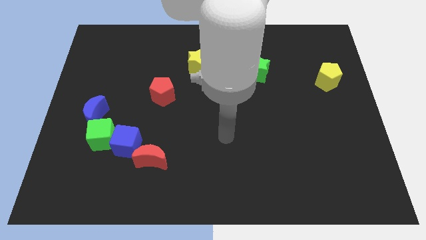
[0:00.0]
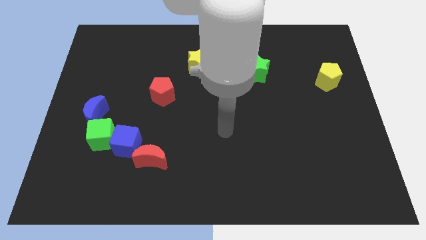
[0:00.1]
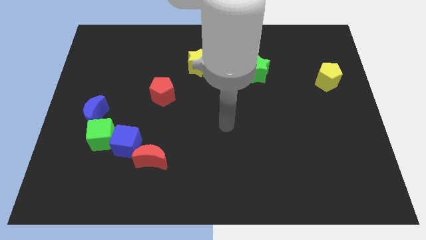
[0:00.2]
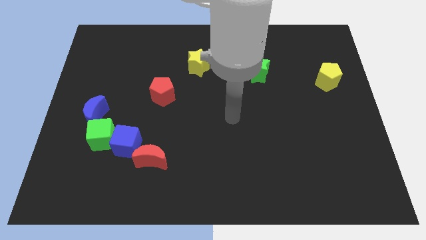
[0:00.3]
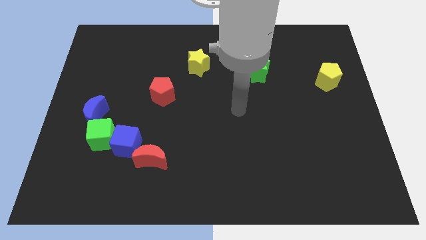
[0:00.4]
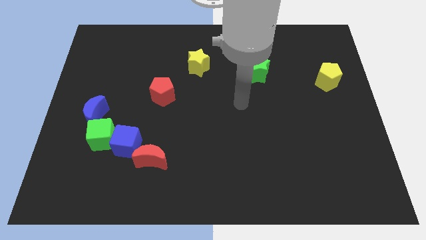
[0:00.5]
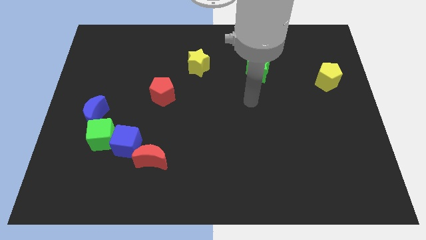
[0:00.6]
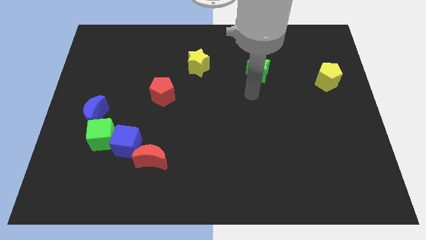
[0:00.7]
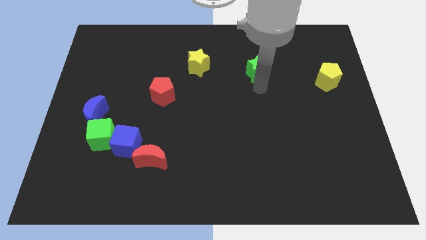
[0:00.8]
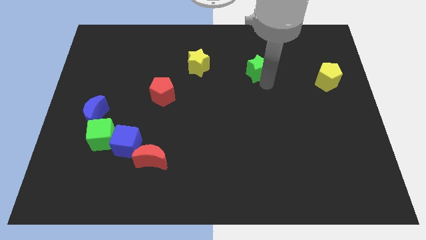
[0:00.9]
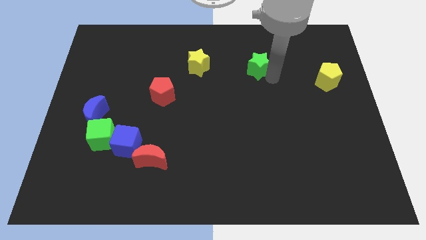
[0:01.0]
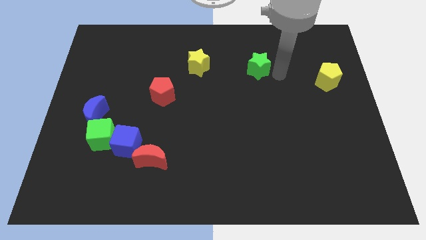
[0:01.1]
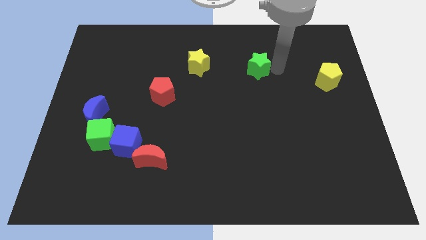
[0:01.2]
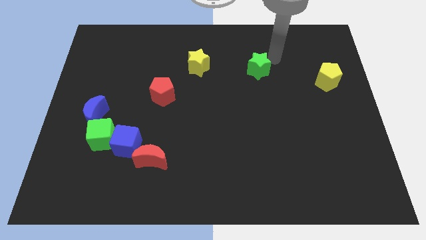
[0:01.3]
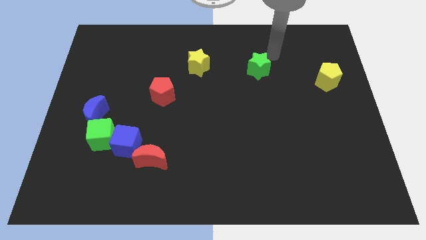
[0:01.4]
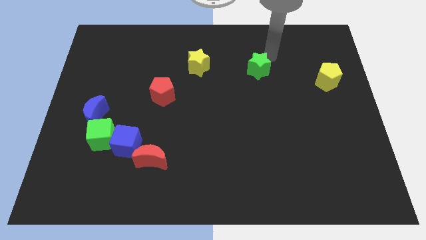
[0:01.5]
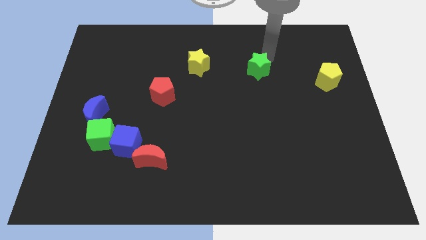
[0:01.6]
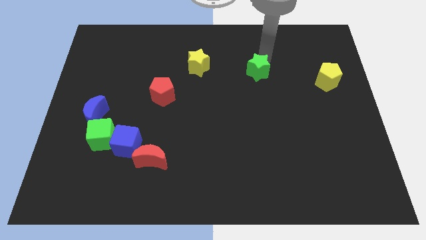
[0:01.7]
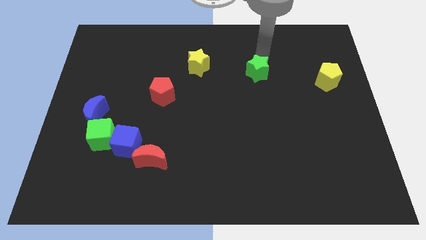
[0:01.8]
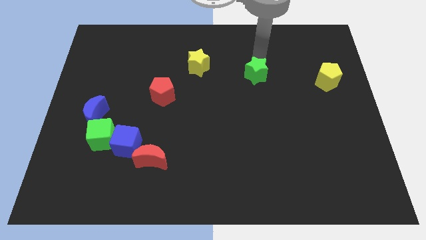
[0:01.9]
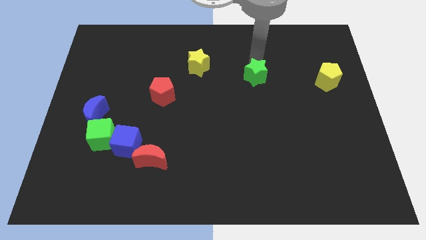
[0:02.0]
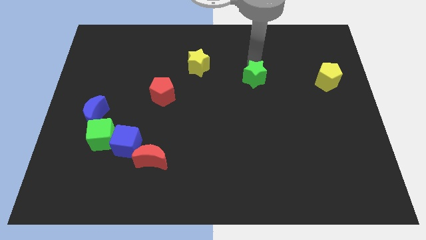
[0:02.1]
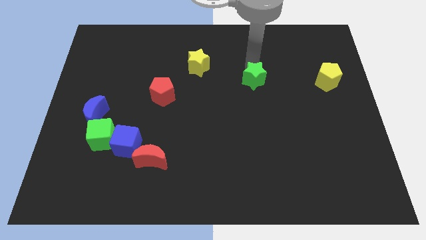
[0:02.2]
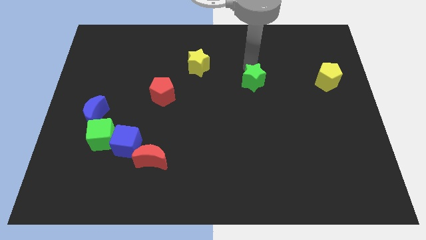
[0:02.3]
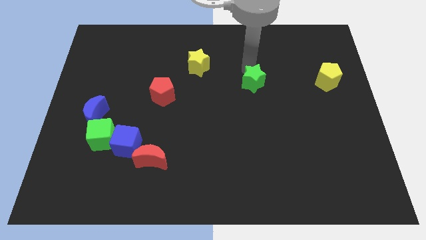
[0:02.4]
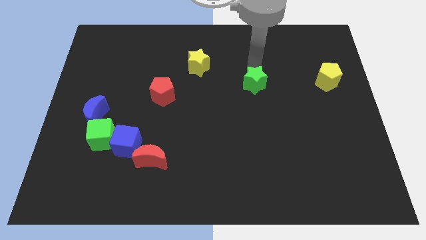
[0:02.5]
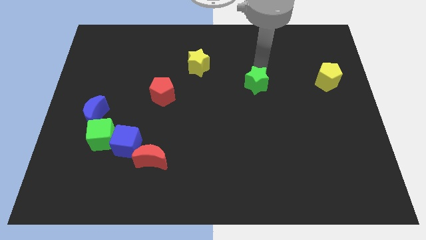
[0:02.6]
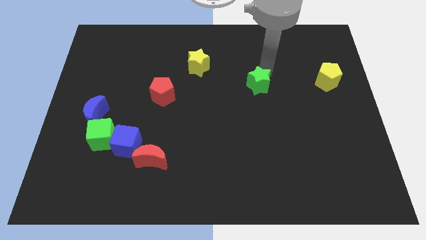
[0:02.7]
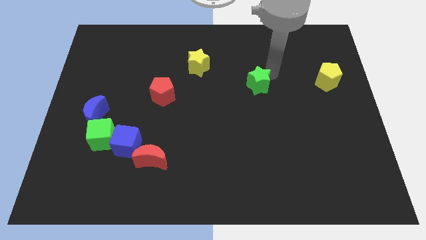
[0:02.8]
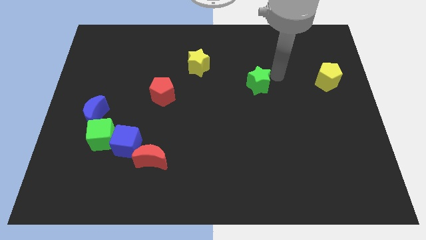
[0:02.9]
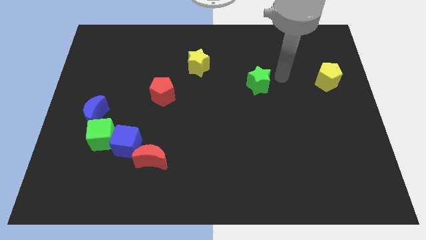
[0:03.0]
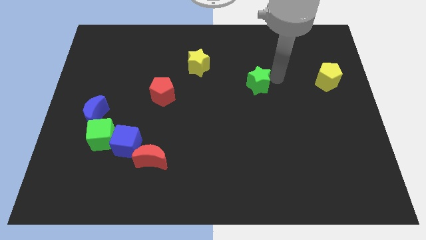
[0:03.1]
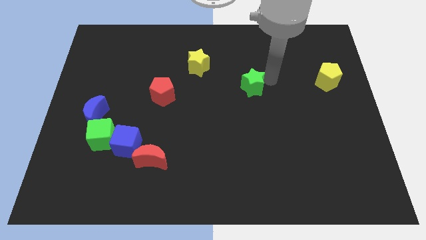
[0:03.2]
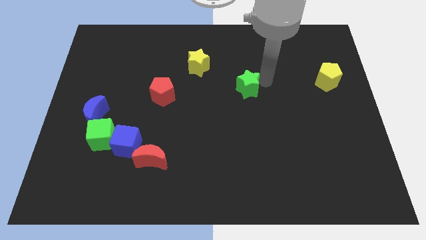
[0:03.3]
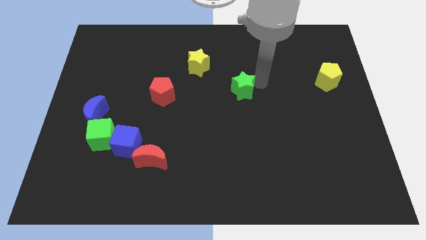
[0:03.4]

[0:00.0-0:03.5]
push the green star slightly diagonally down and to the left

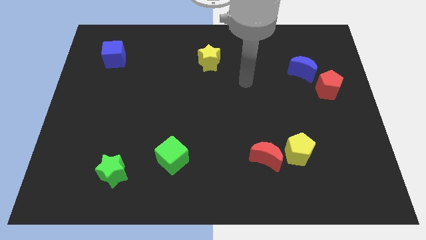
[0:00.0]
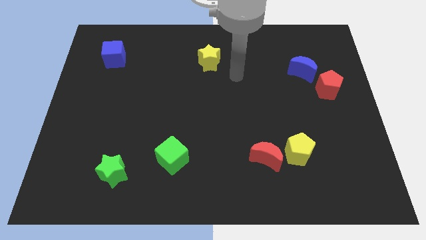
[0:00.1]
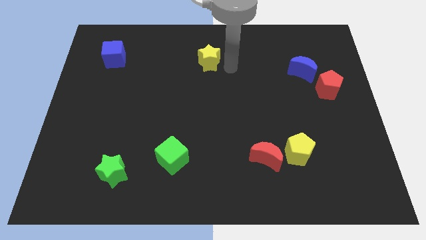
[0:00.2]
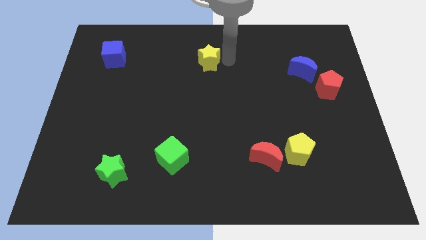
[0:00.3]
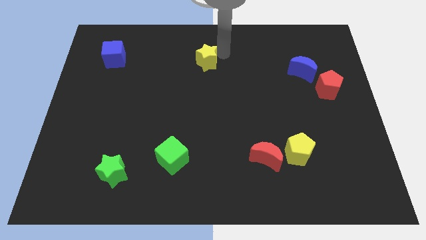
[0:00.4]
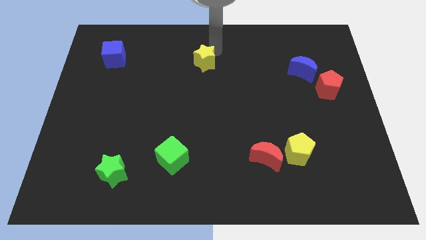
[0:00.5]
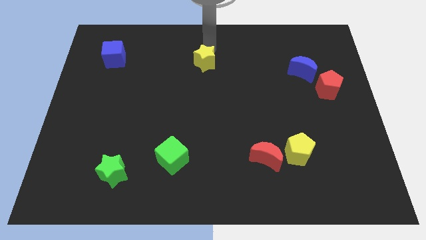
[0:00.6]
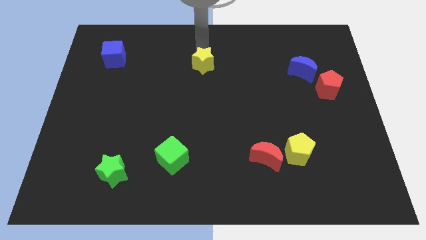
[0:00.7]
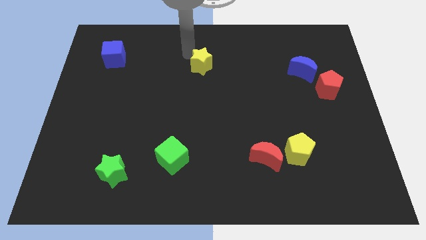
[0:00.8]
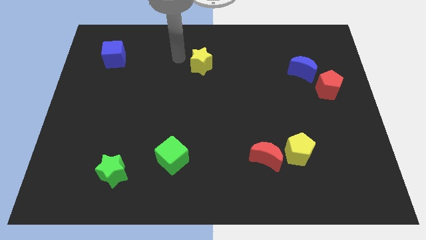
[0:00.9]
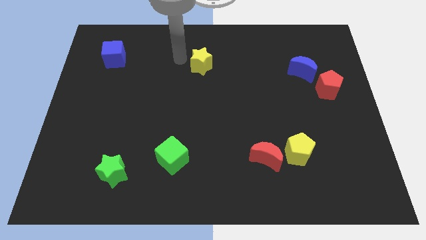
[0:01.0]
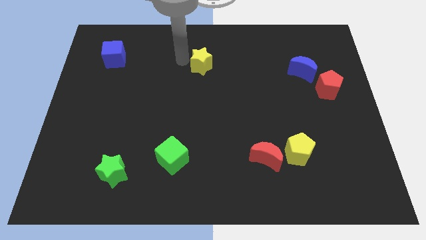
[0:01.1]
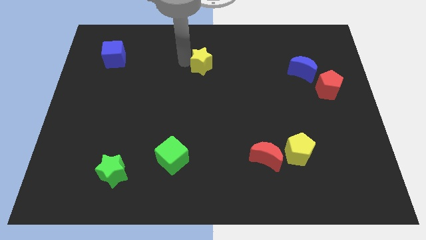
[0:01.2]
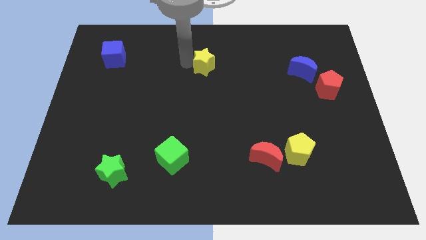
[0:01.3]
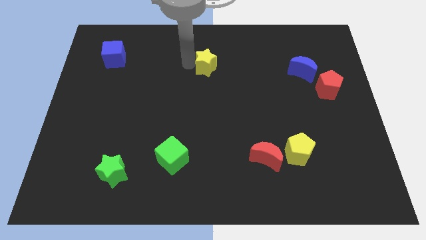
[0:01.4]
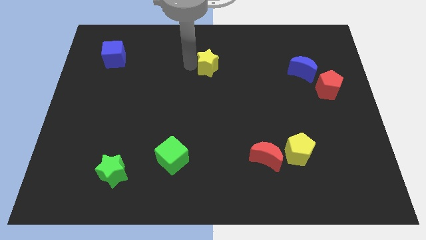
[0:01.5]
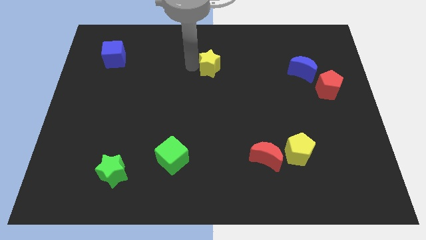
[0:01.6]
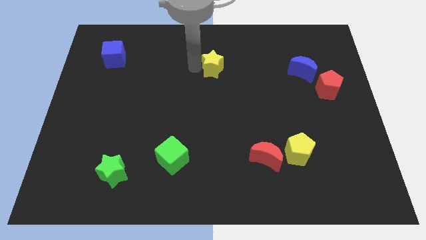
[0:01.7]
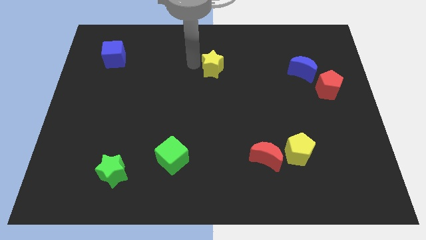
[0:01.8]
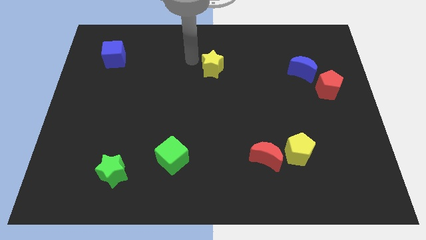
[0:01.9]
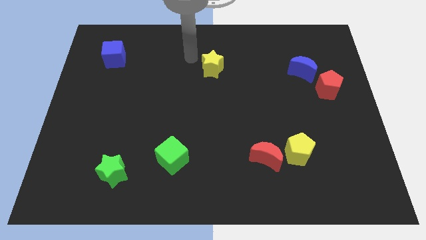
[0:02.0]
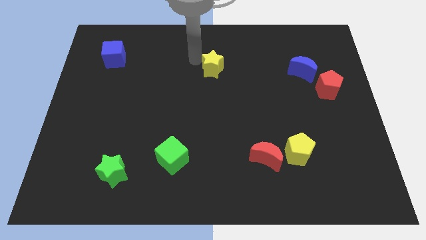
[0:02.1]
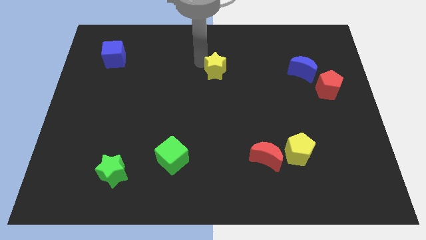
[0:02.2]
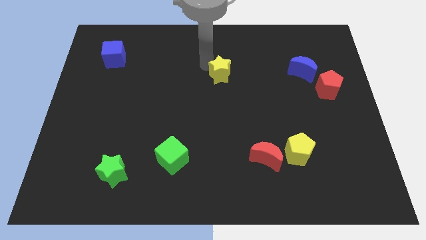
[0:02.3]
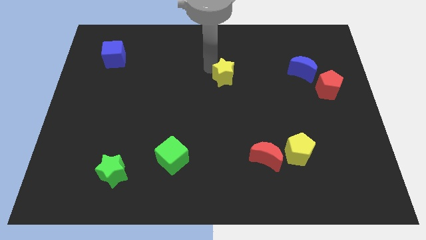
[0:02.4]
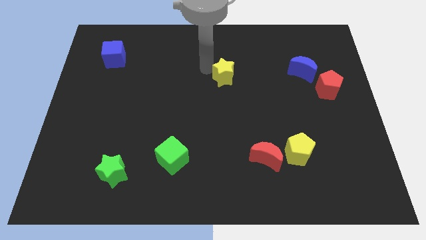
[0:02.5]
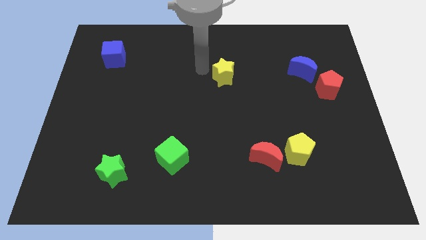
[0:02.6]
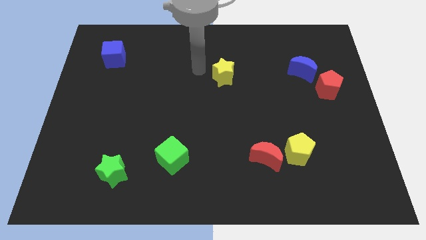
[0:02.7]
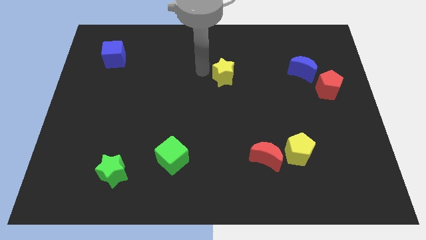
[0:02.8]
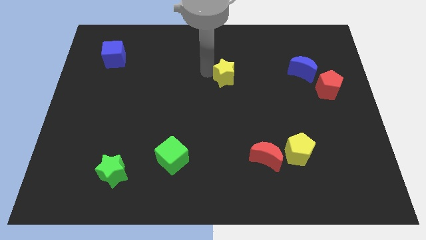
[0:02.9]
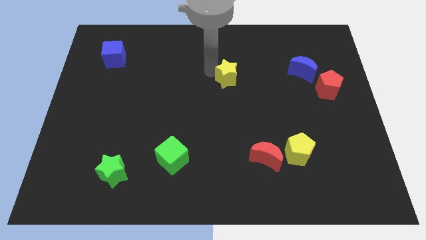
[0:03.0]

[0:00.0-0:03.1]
push the yellow star downwards and to the right somewhat

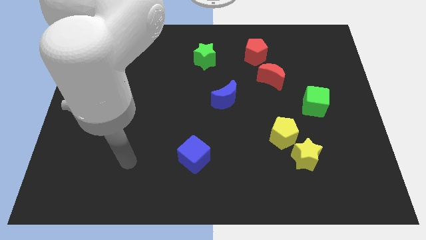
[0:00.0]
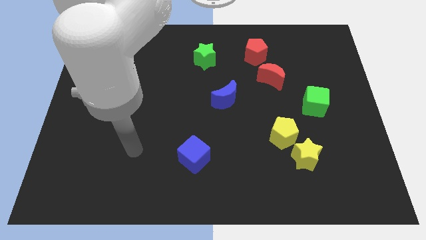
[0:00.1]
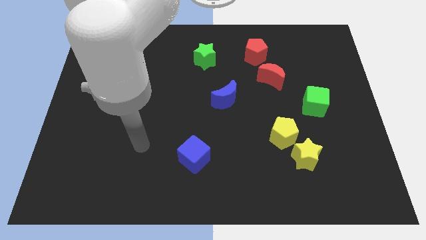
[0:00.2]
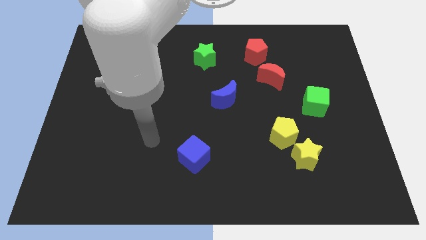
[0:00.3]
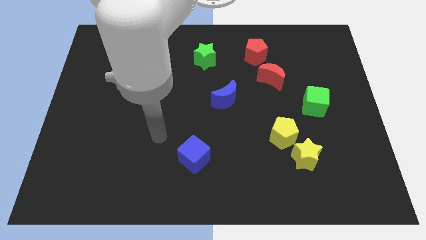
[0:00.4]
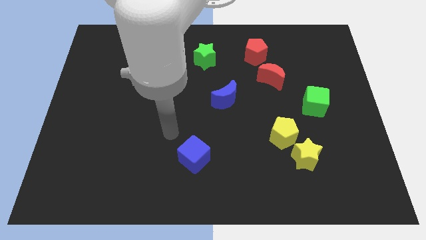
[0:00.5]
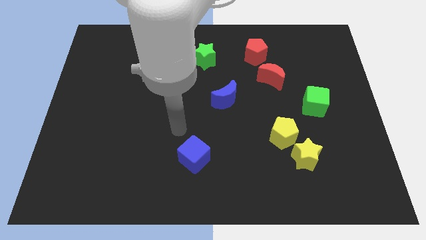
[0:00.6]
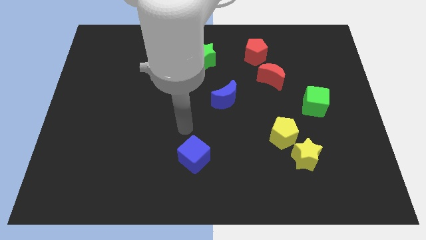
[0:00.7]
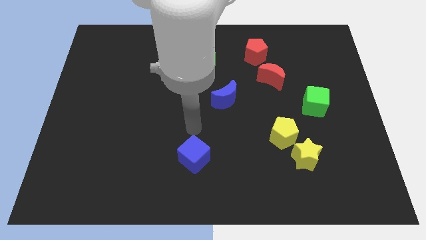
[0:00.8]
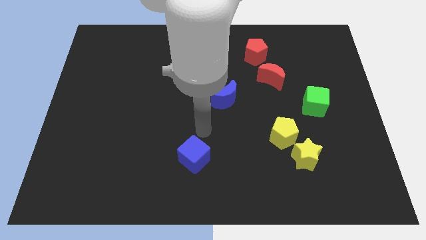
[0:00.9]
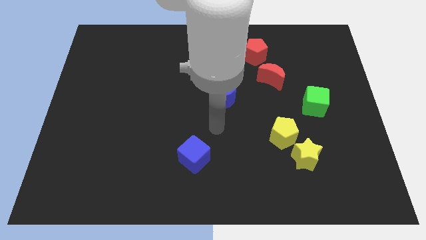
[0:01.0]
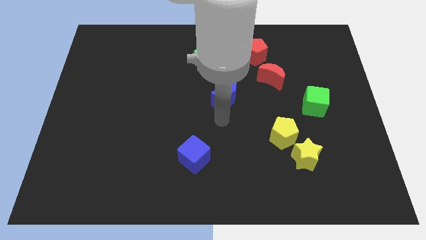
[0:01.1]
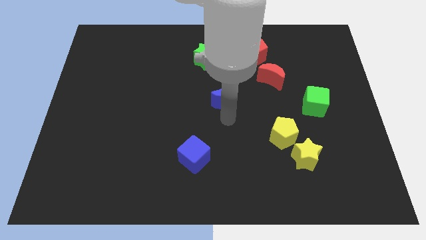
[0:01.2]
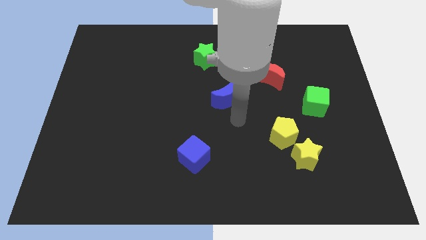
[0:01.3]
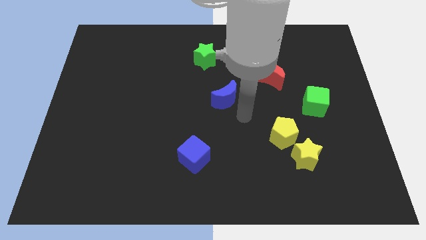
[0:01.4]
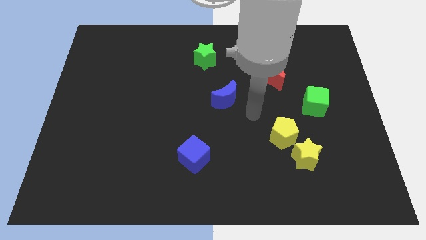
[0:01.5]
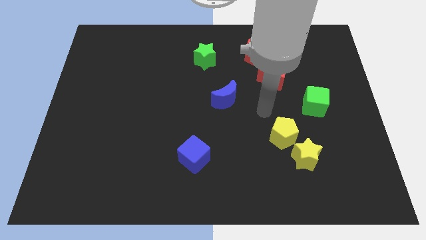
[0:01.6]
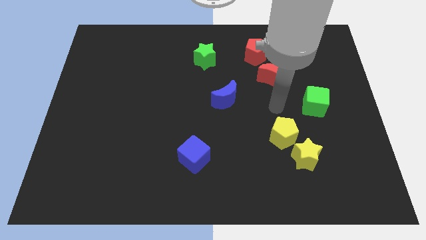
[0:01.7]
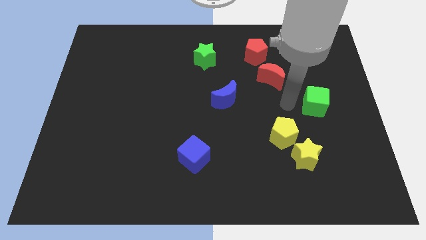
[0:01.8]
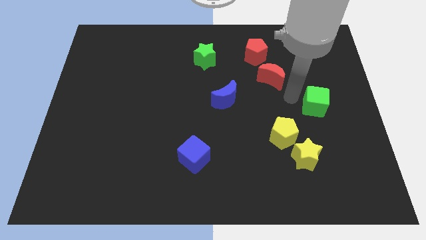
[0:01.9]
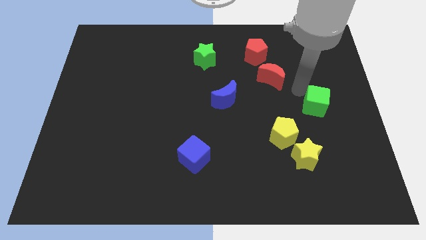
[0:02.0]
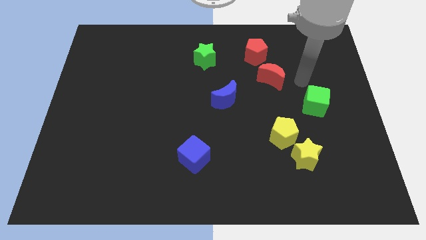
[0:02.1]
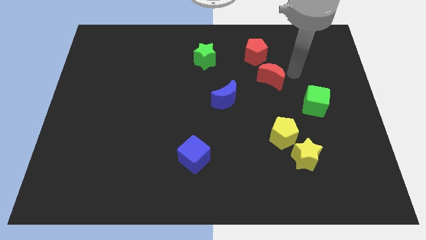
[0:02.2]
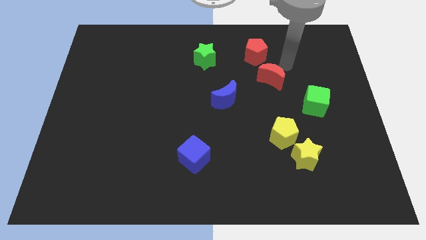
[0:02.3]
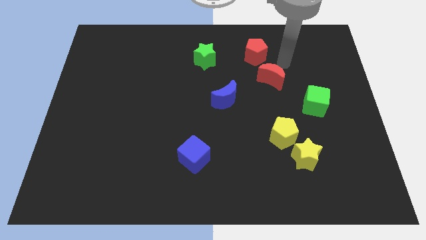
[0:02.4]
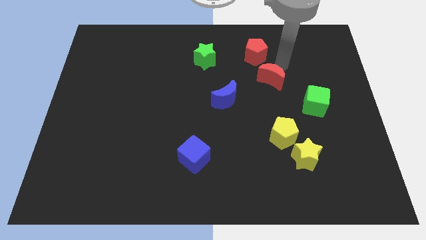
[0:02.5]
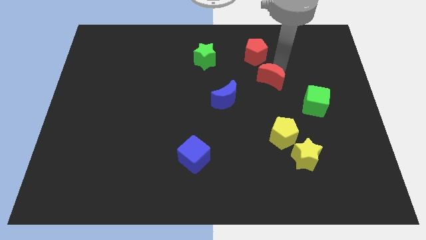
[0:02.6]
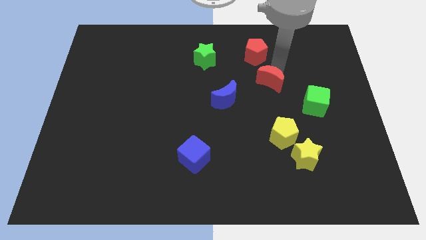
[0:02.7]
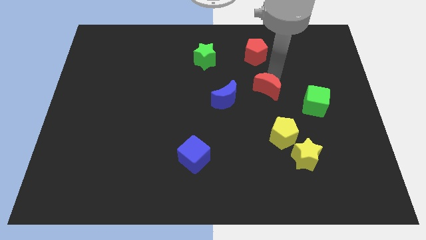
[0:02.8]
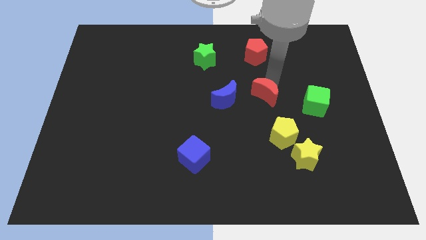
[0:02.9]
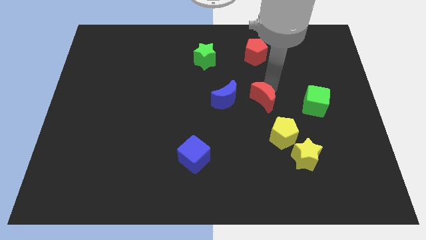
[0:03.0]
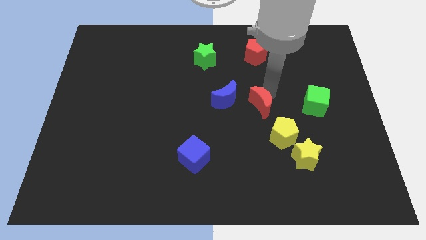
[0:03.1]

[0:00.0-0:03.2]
move the red moon somewhat downwards and then to the left
